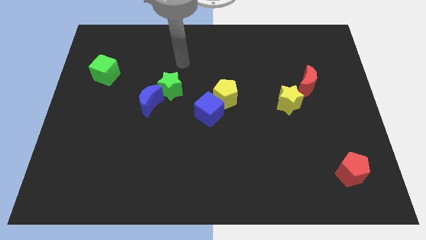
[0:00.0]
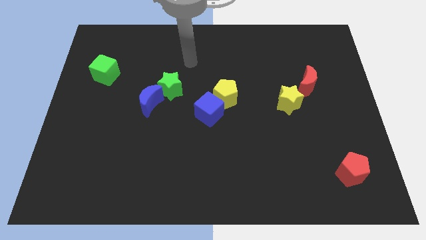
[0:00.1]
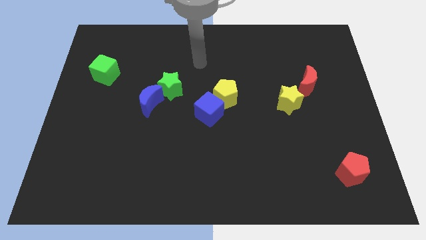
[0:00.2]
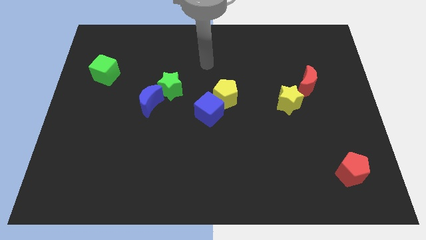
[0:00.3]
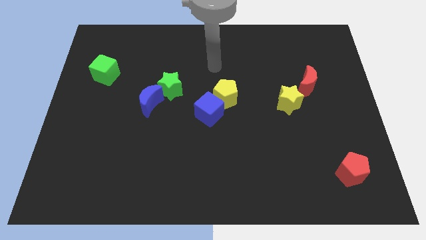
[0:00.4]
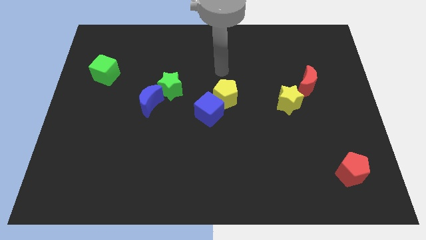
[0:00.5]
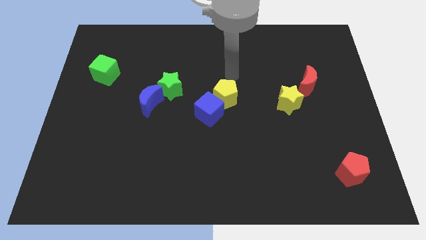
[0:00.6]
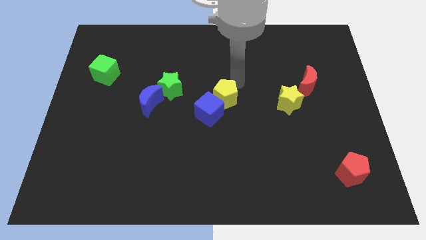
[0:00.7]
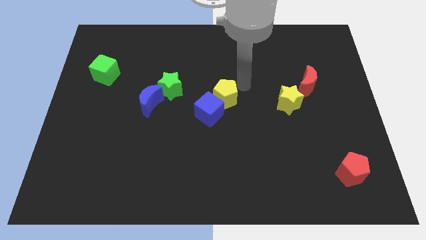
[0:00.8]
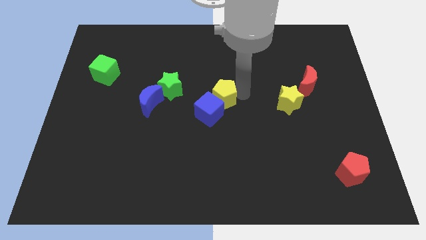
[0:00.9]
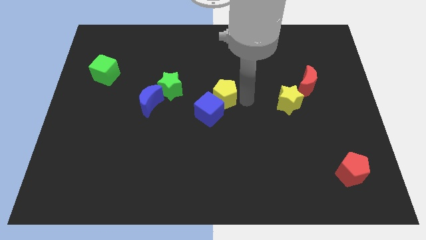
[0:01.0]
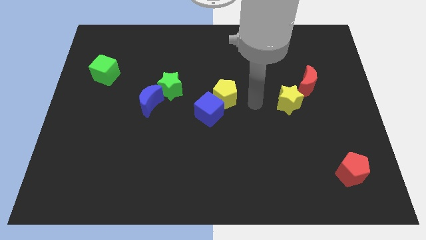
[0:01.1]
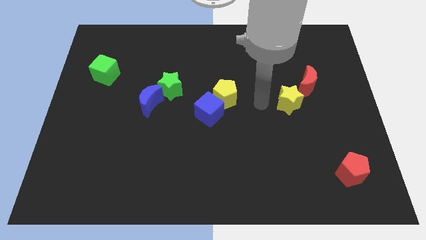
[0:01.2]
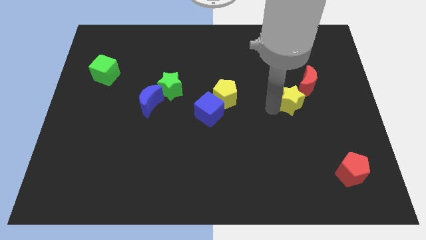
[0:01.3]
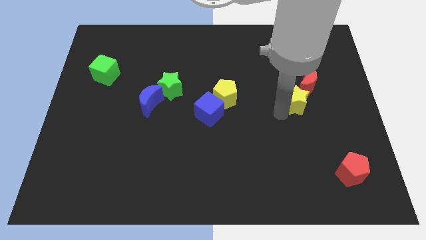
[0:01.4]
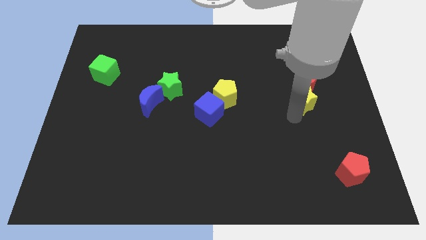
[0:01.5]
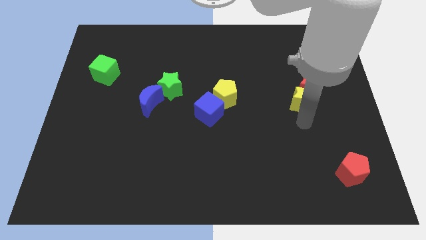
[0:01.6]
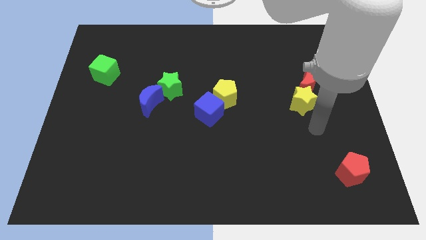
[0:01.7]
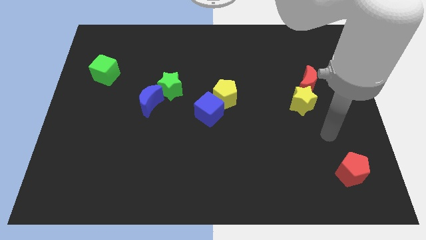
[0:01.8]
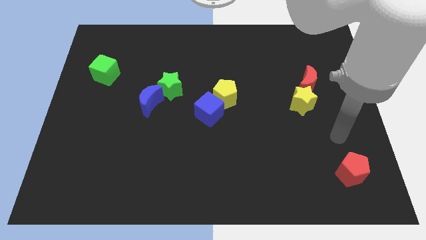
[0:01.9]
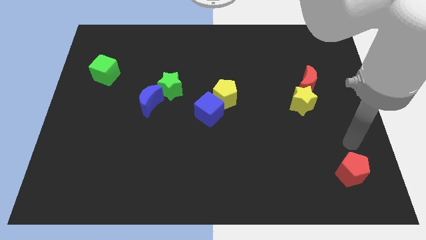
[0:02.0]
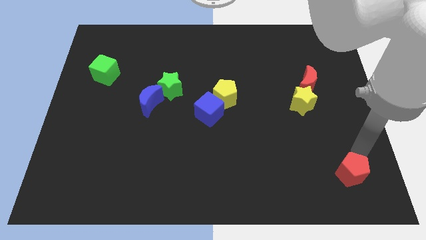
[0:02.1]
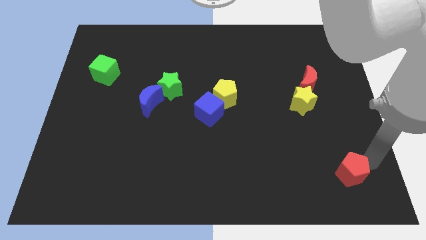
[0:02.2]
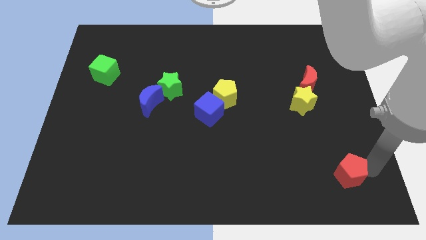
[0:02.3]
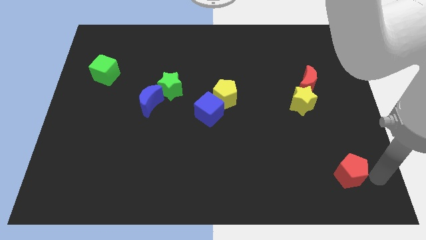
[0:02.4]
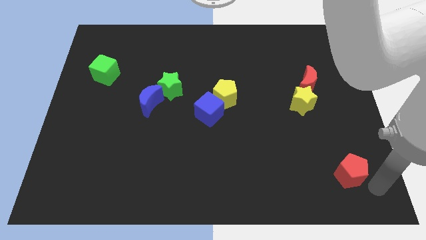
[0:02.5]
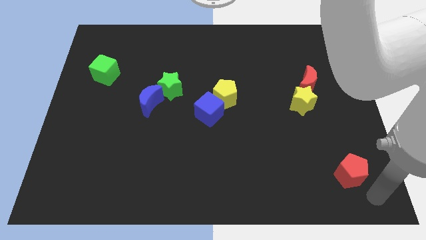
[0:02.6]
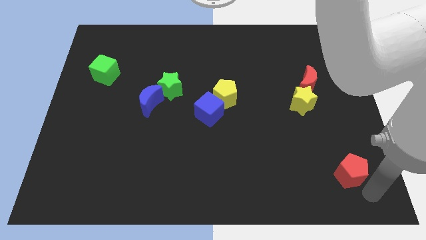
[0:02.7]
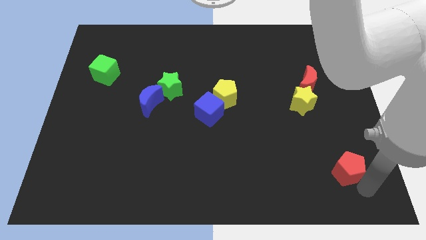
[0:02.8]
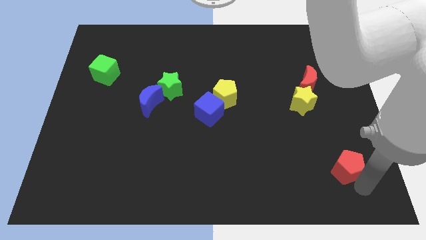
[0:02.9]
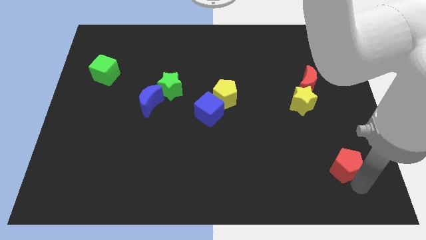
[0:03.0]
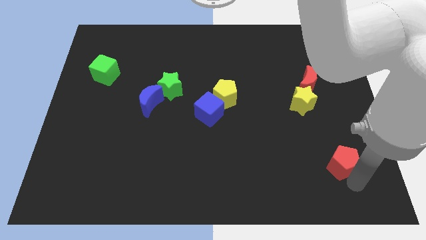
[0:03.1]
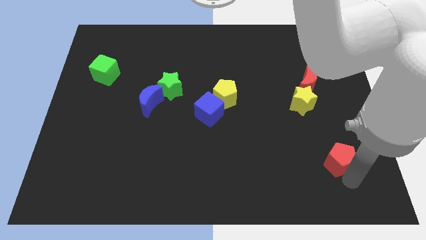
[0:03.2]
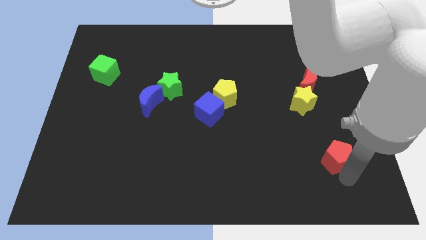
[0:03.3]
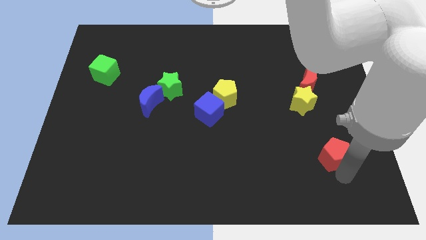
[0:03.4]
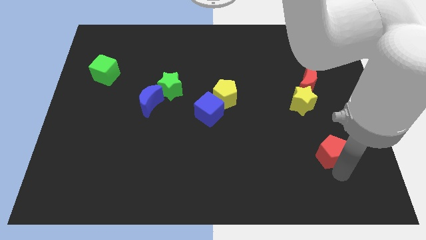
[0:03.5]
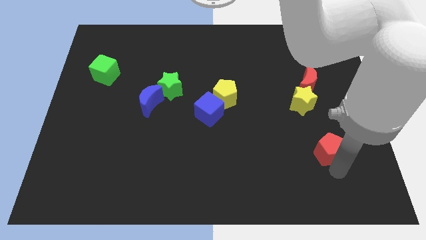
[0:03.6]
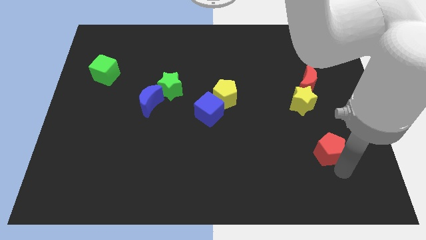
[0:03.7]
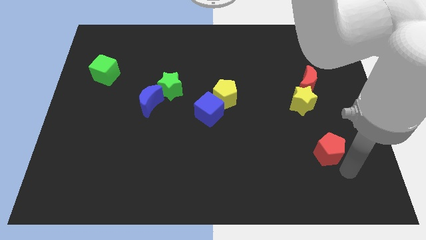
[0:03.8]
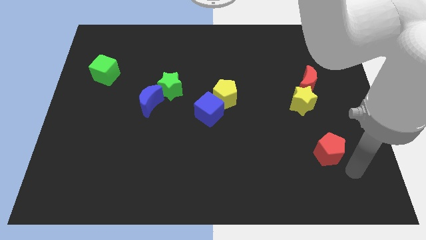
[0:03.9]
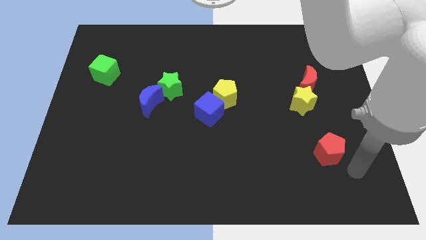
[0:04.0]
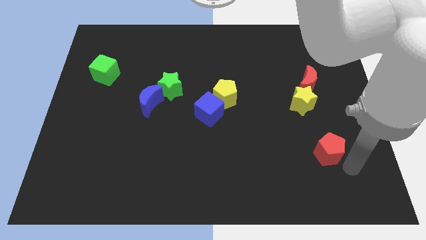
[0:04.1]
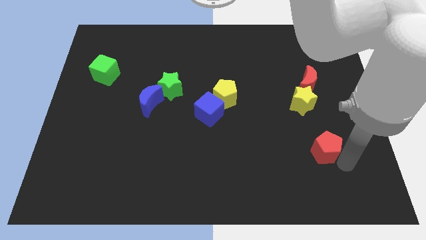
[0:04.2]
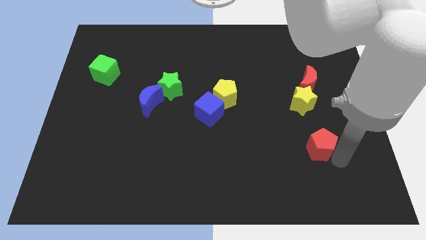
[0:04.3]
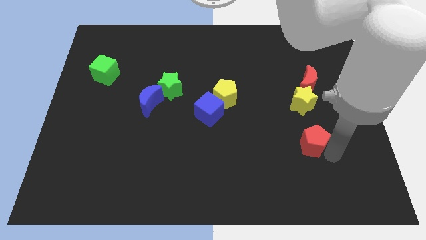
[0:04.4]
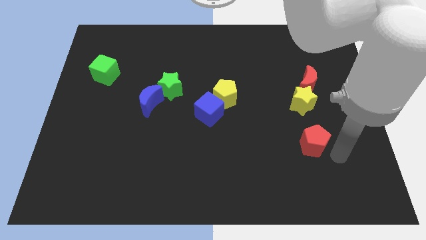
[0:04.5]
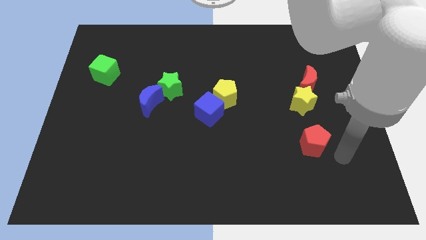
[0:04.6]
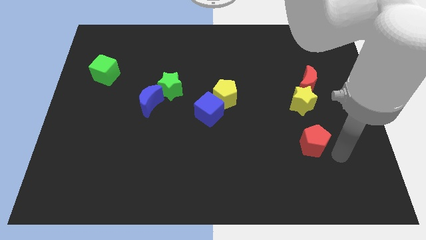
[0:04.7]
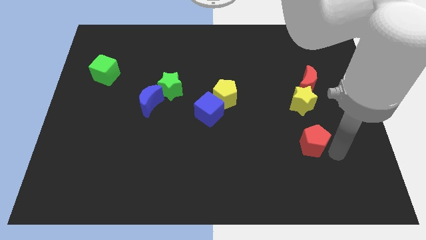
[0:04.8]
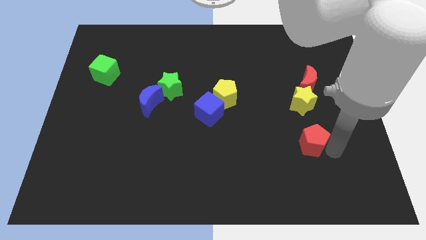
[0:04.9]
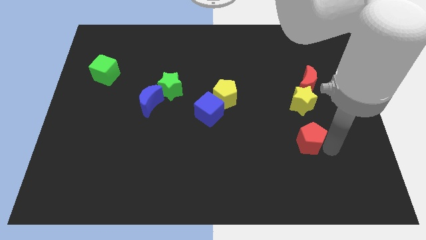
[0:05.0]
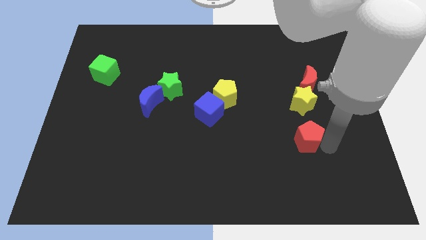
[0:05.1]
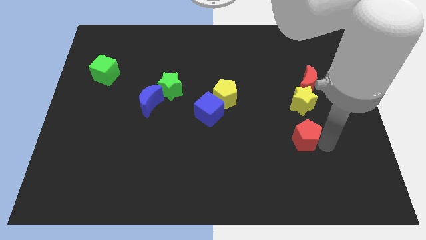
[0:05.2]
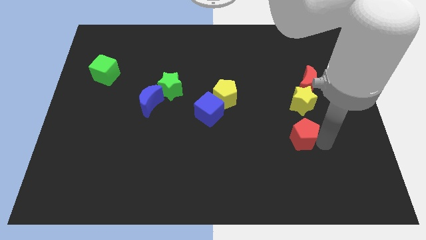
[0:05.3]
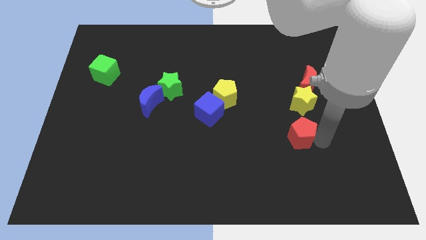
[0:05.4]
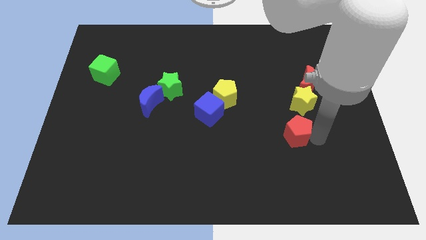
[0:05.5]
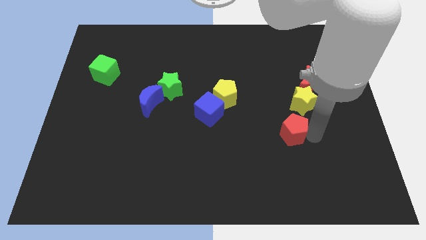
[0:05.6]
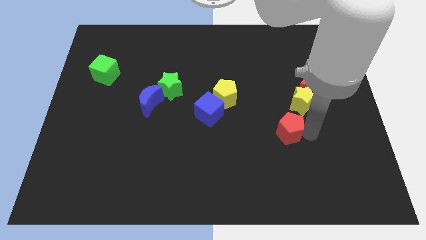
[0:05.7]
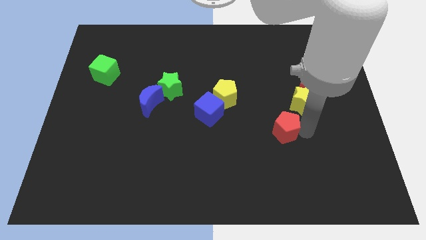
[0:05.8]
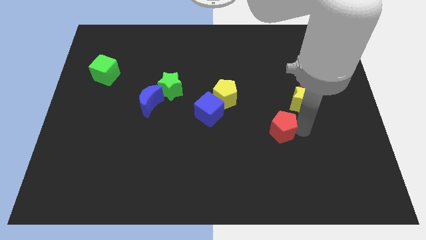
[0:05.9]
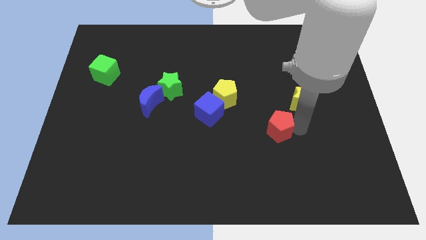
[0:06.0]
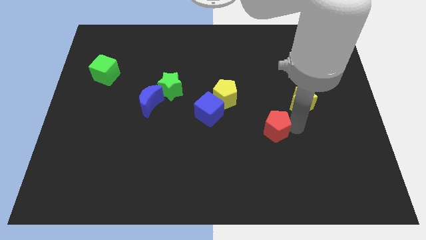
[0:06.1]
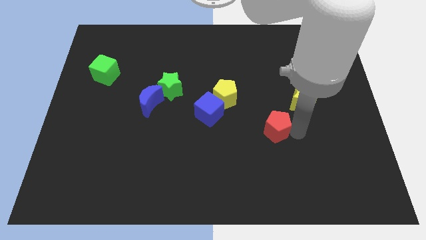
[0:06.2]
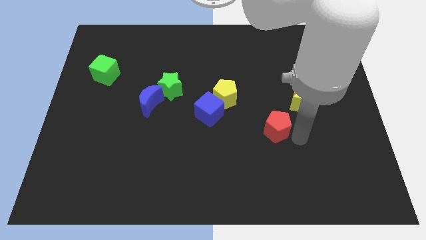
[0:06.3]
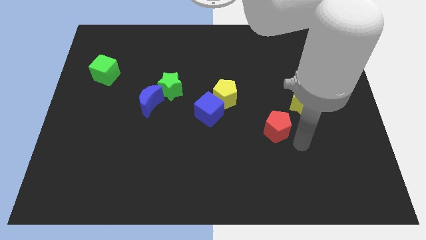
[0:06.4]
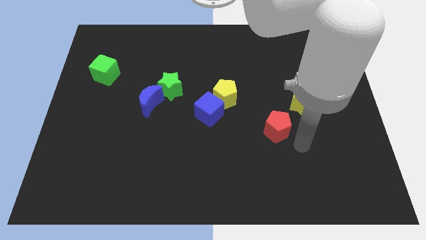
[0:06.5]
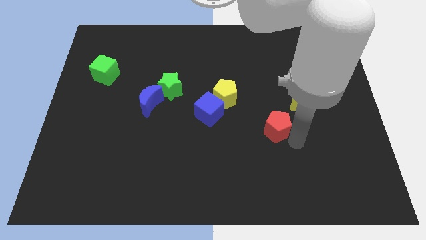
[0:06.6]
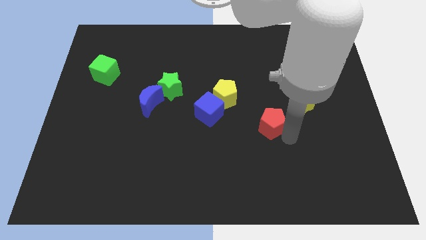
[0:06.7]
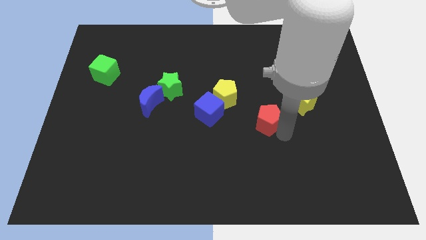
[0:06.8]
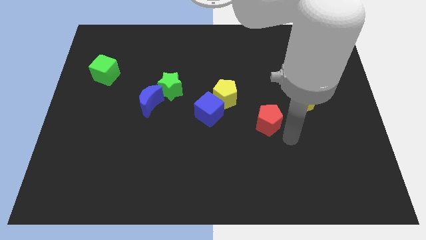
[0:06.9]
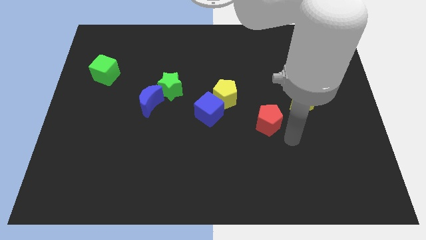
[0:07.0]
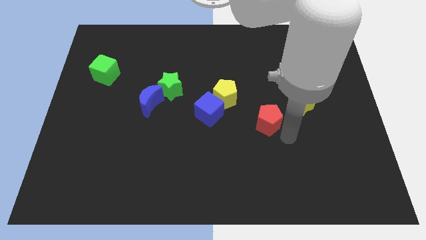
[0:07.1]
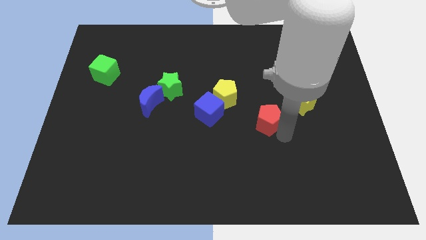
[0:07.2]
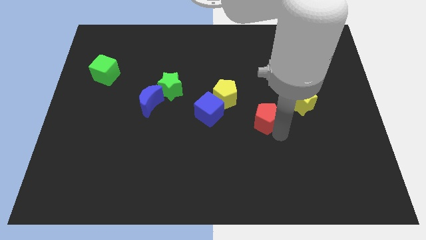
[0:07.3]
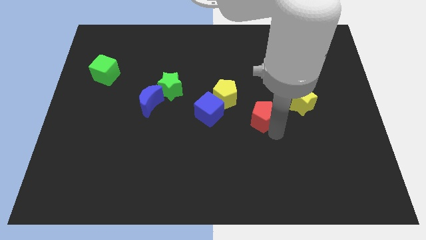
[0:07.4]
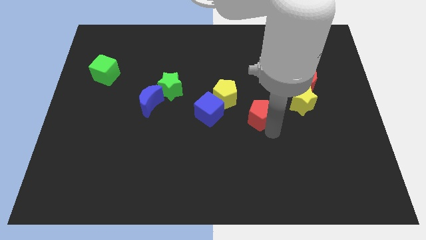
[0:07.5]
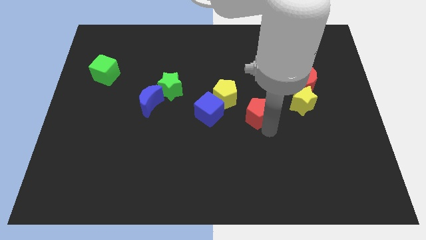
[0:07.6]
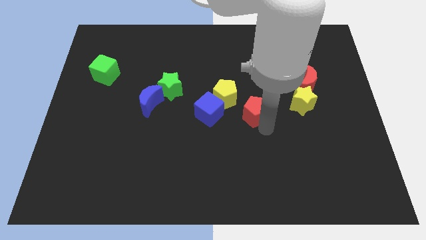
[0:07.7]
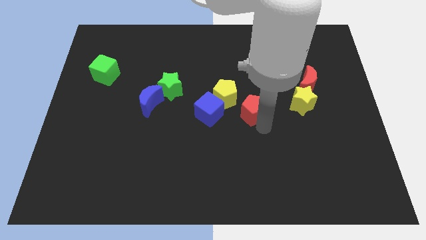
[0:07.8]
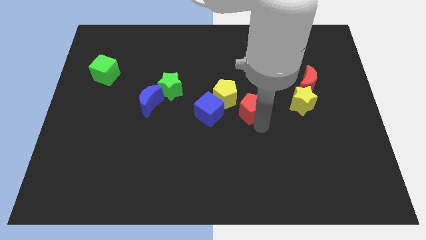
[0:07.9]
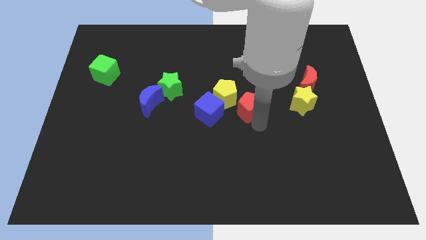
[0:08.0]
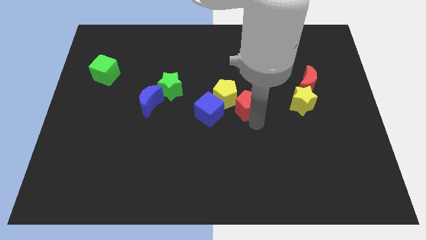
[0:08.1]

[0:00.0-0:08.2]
put the red pentagon towards the yellow pentagon
